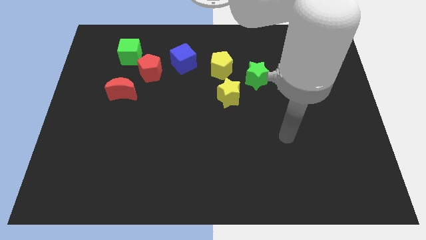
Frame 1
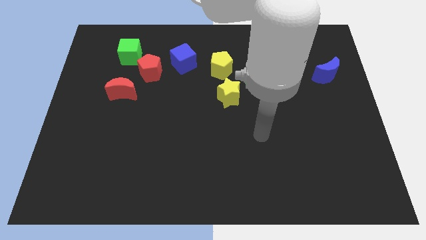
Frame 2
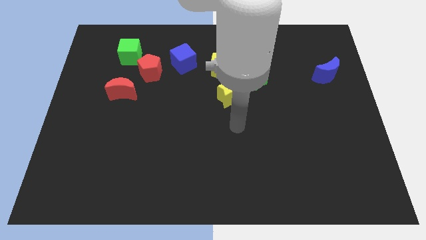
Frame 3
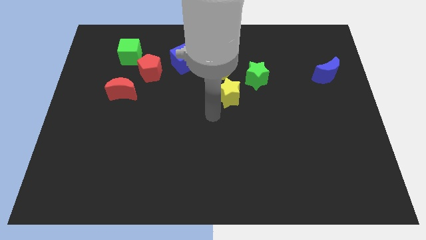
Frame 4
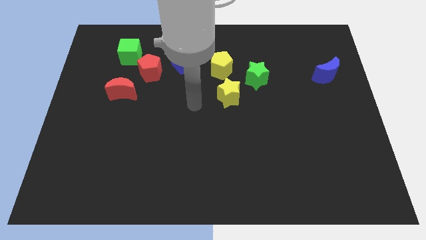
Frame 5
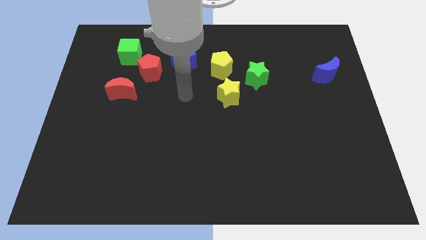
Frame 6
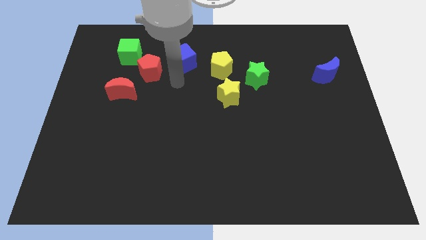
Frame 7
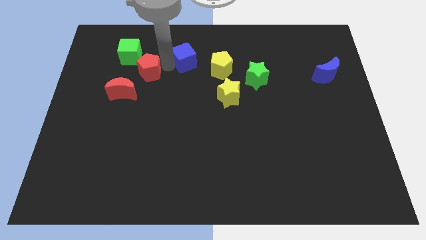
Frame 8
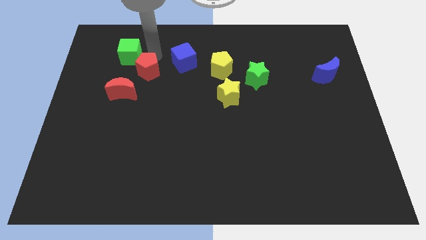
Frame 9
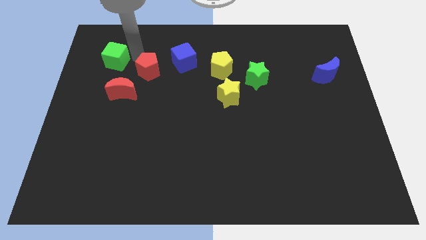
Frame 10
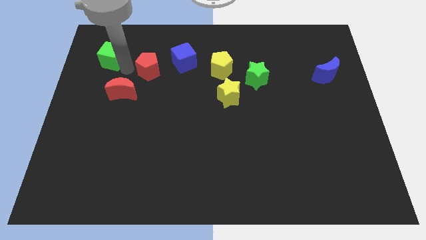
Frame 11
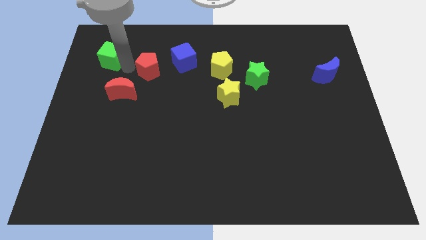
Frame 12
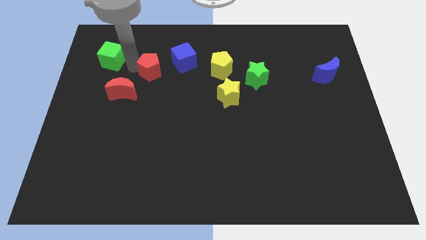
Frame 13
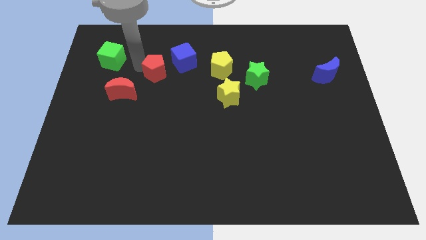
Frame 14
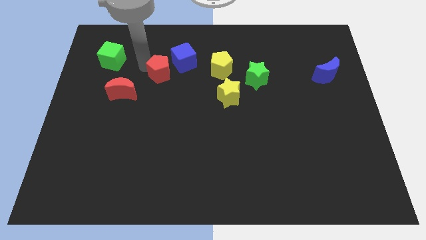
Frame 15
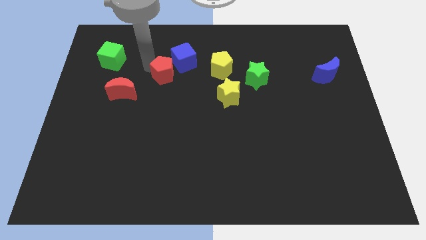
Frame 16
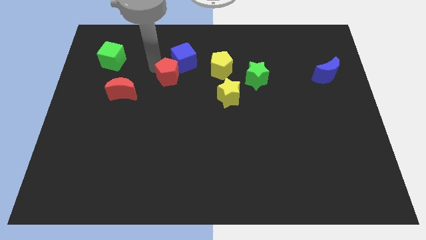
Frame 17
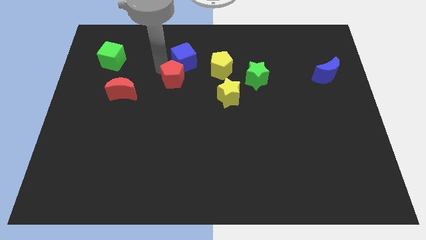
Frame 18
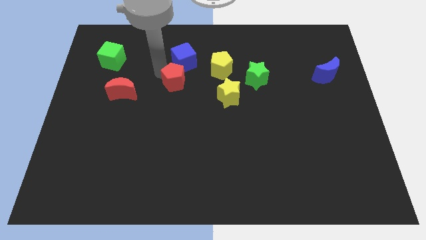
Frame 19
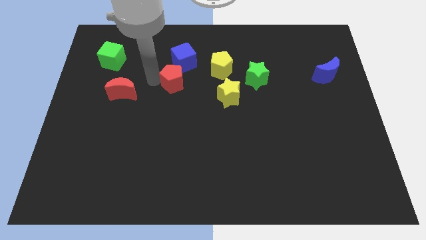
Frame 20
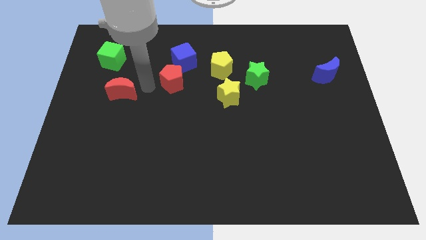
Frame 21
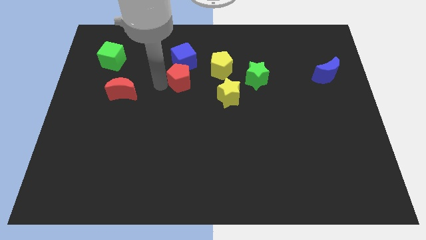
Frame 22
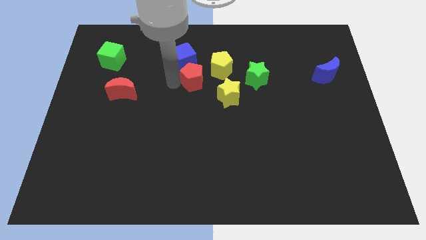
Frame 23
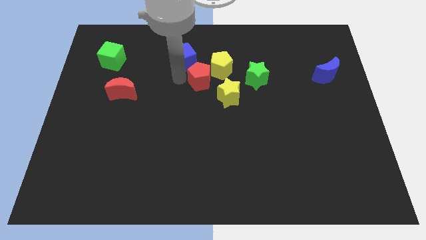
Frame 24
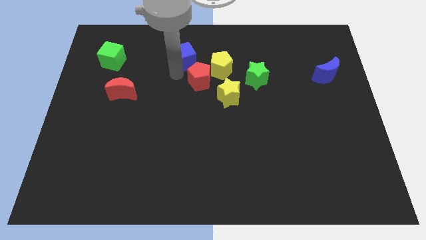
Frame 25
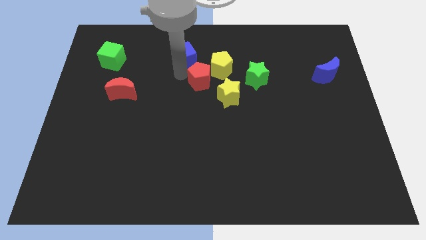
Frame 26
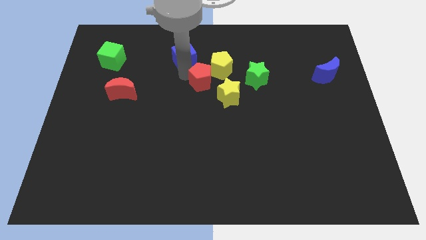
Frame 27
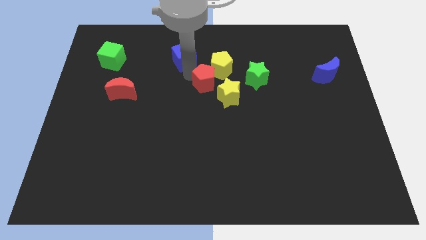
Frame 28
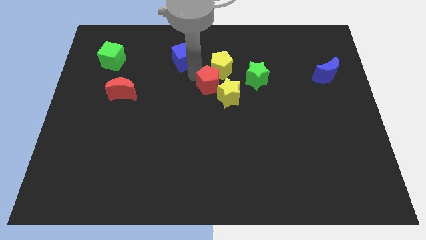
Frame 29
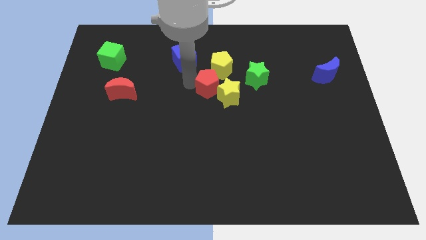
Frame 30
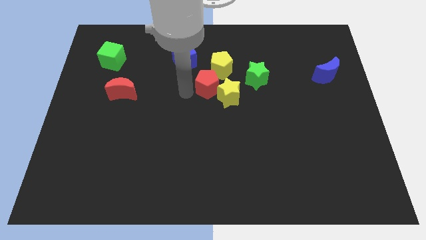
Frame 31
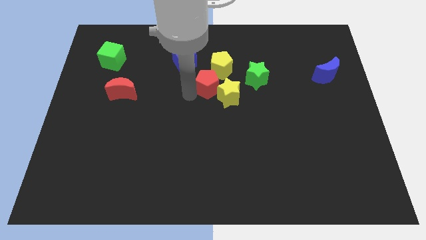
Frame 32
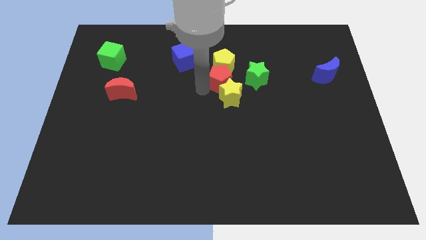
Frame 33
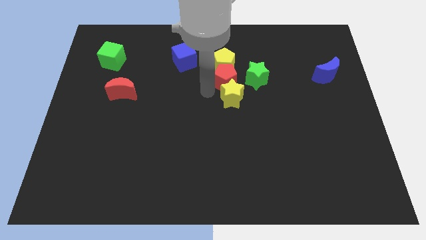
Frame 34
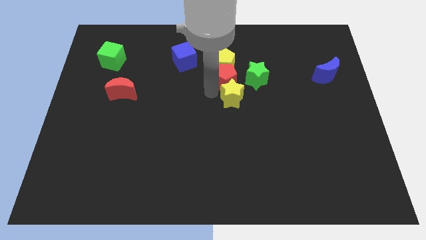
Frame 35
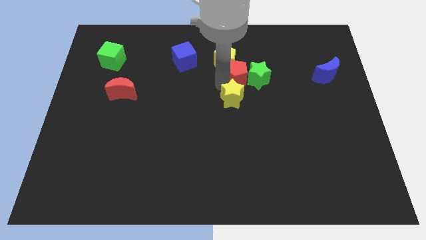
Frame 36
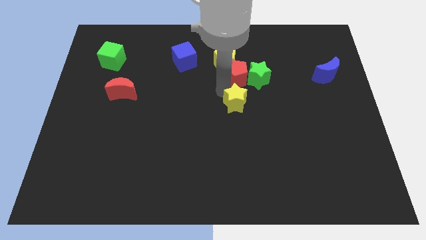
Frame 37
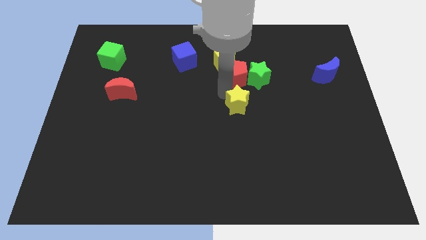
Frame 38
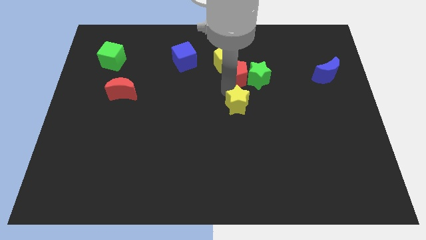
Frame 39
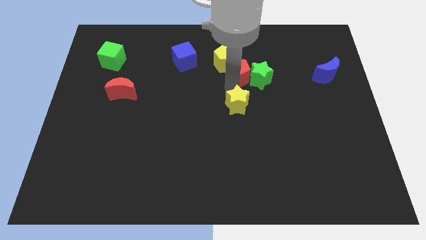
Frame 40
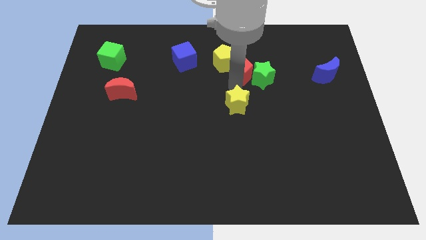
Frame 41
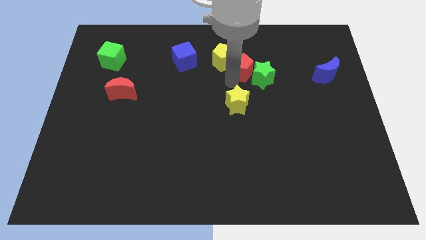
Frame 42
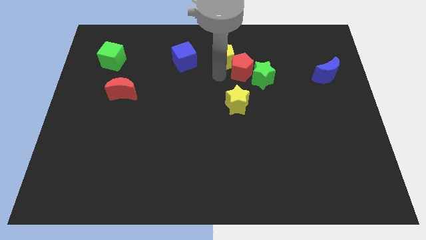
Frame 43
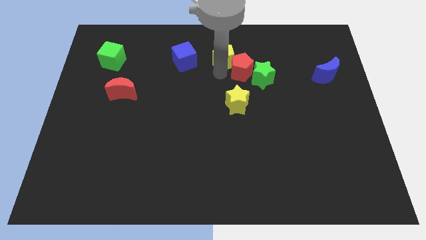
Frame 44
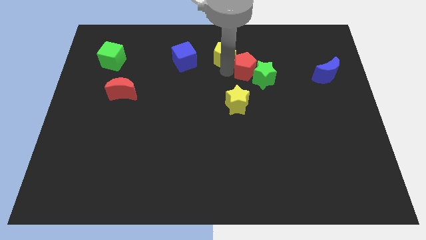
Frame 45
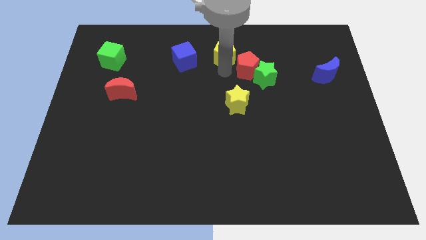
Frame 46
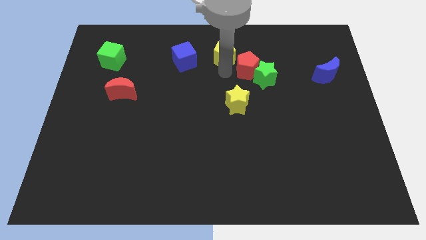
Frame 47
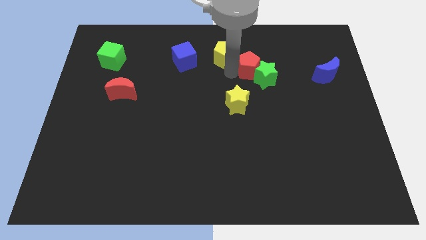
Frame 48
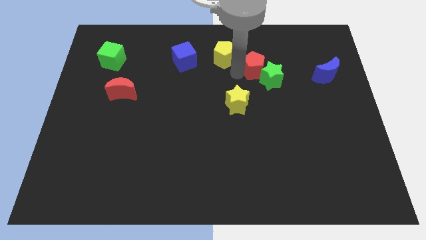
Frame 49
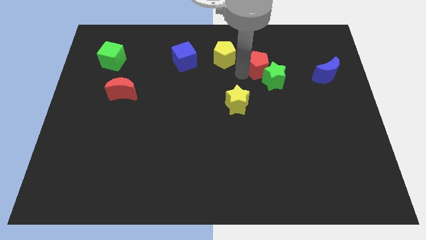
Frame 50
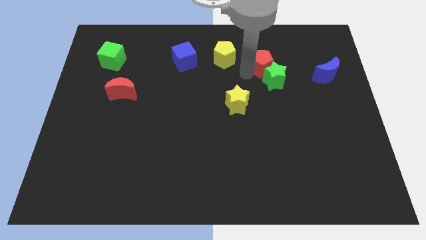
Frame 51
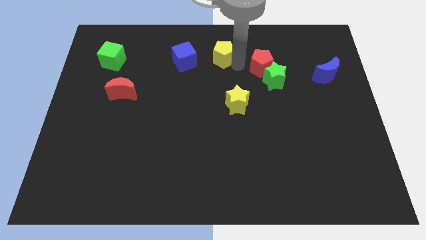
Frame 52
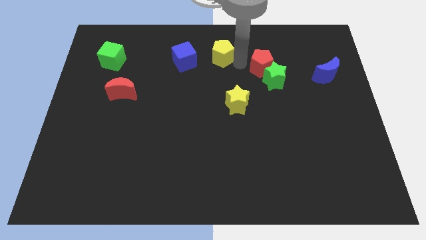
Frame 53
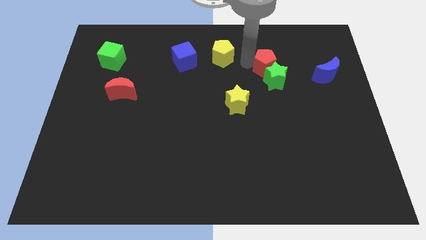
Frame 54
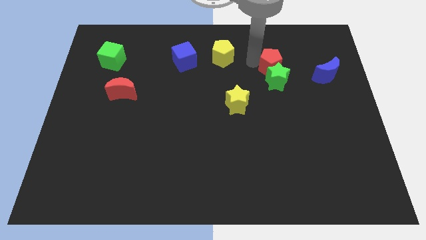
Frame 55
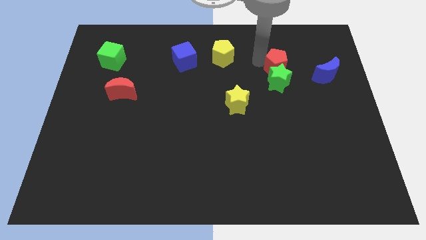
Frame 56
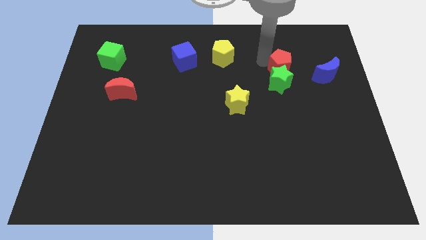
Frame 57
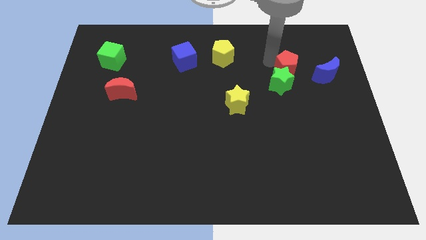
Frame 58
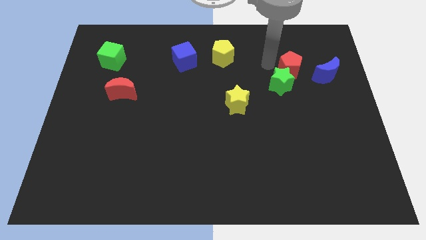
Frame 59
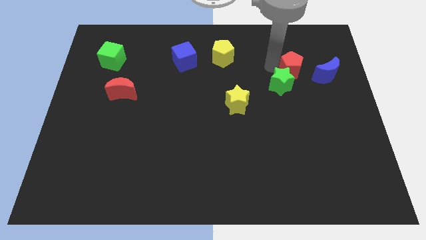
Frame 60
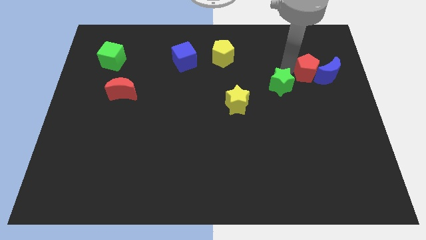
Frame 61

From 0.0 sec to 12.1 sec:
put the red pentagon to the blue moon

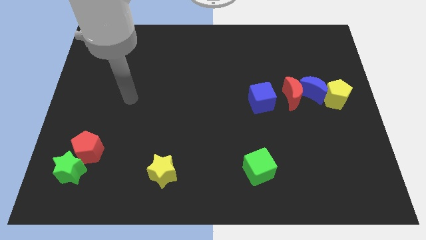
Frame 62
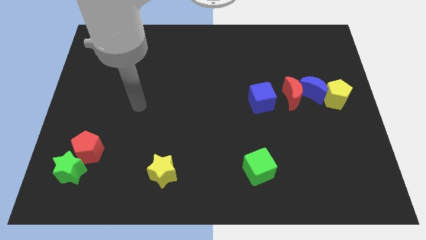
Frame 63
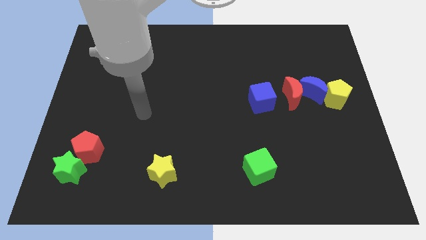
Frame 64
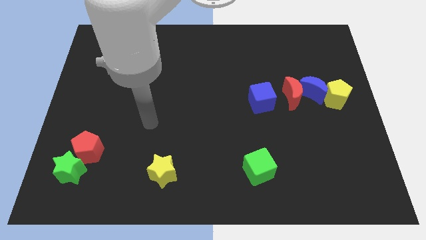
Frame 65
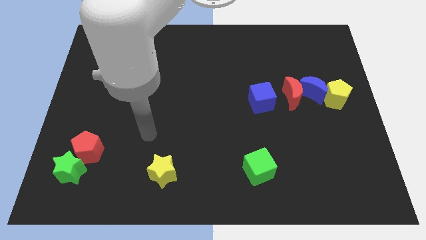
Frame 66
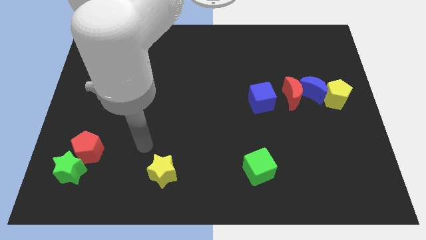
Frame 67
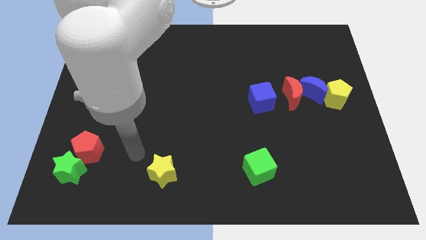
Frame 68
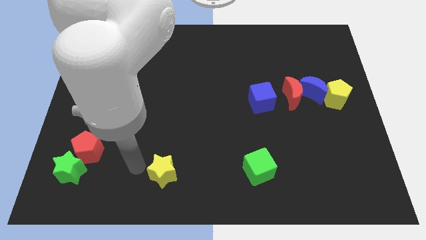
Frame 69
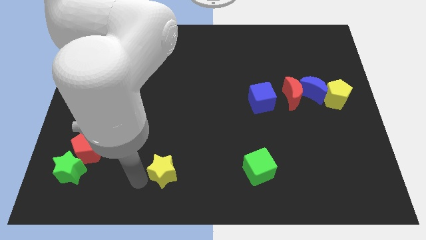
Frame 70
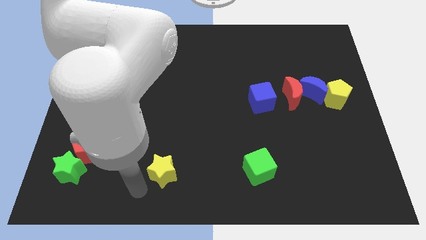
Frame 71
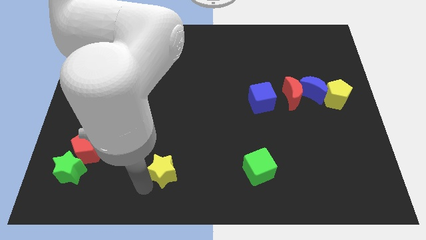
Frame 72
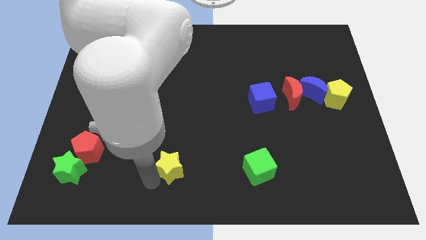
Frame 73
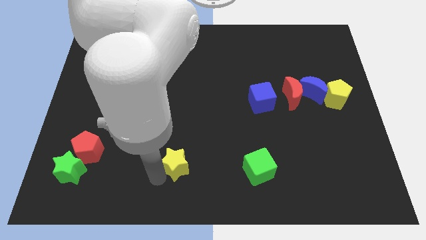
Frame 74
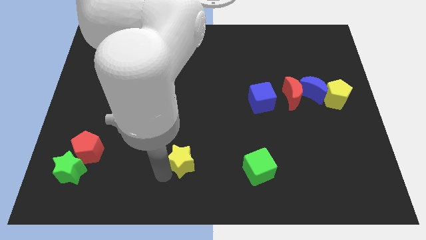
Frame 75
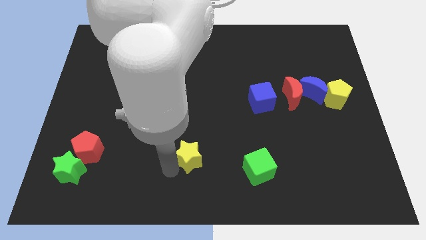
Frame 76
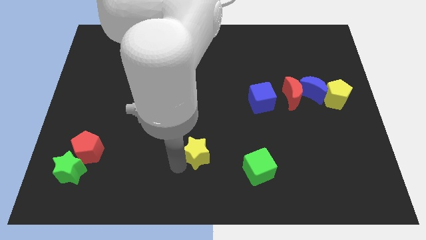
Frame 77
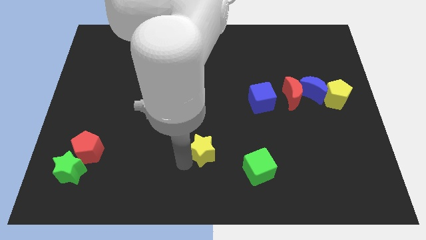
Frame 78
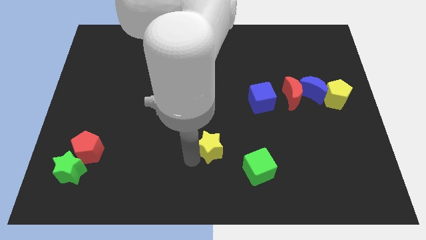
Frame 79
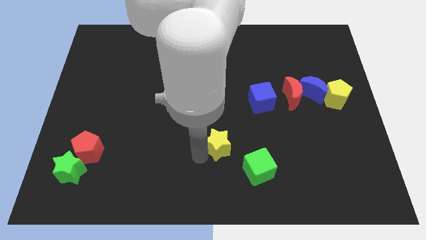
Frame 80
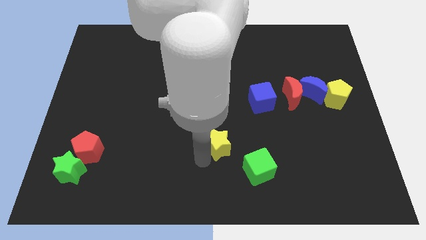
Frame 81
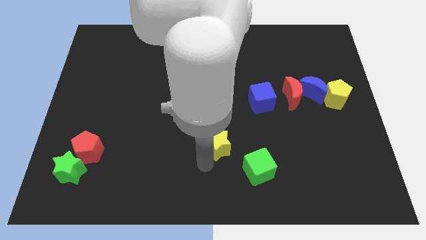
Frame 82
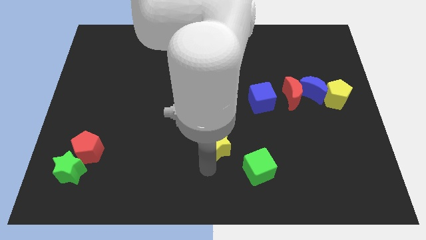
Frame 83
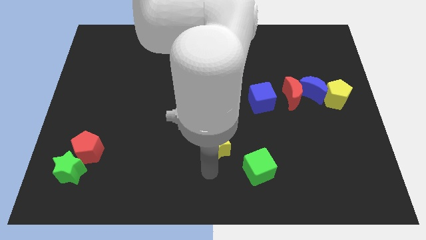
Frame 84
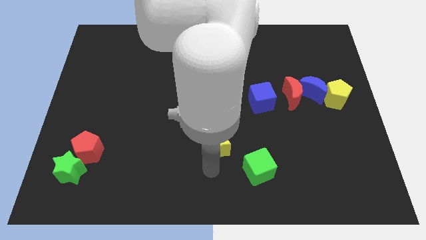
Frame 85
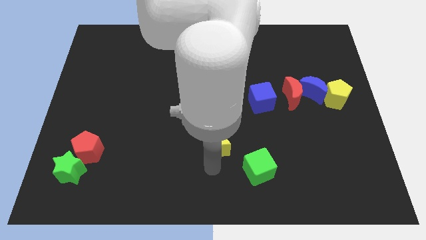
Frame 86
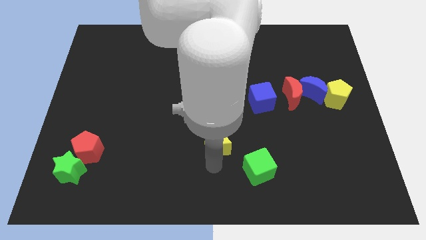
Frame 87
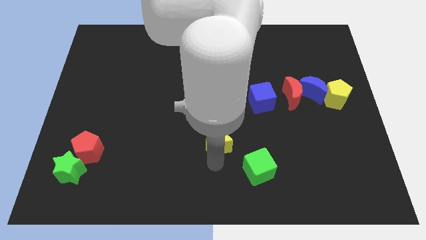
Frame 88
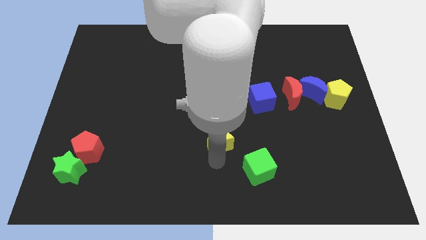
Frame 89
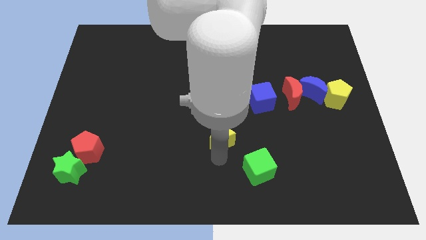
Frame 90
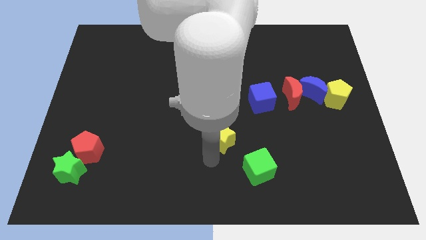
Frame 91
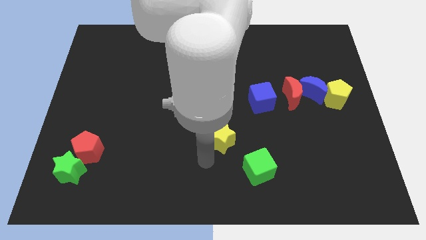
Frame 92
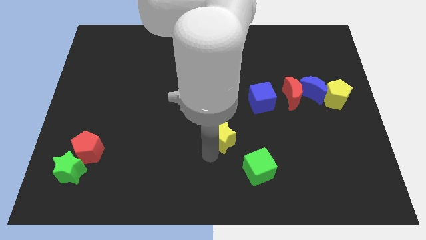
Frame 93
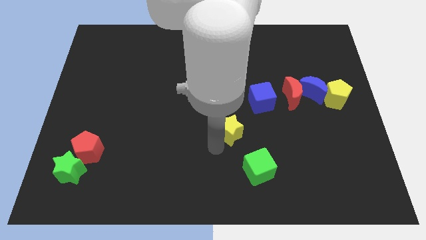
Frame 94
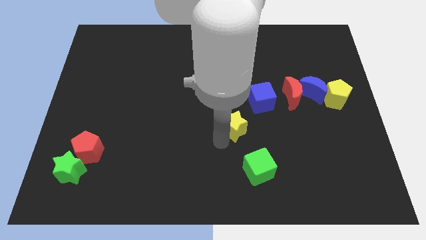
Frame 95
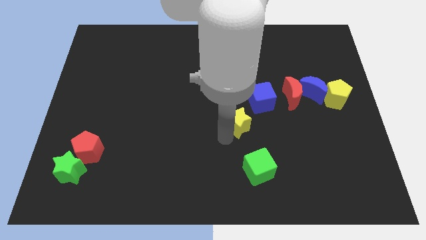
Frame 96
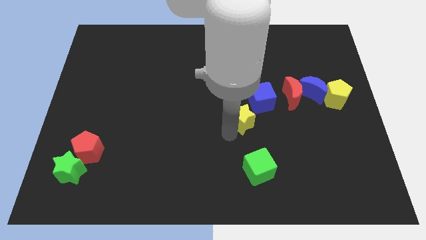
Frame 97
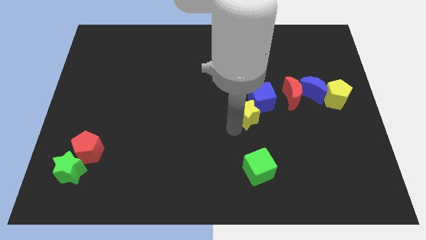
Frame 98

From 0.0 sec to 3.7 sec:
move the yellow star to the blue cube
